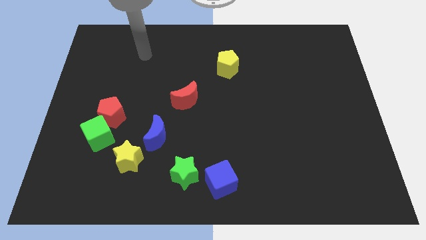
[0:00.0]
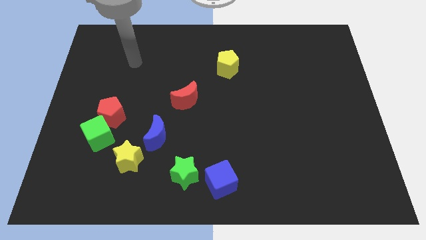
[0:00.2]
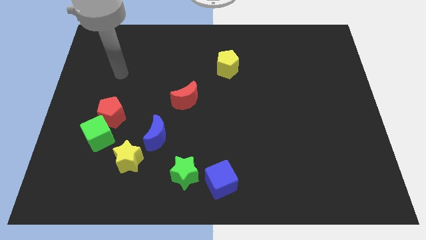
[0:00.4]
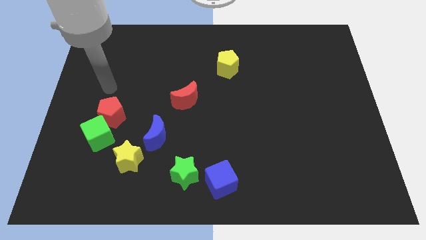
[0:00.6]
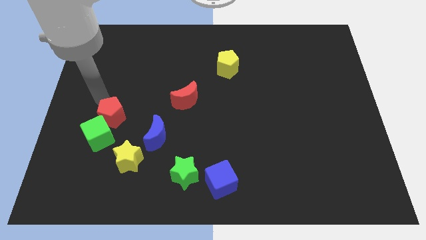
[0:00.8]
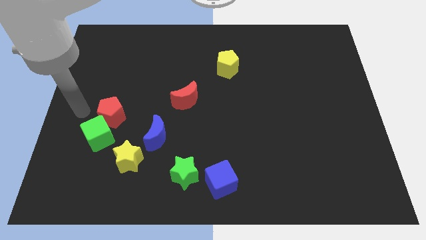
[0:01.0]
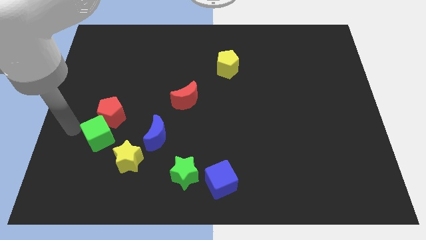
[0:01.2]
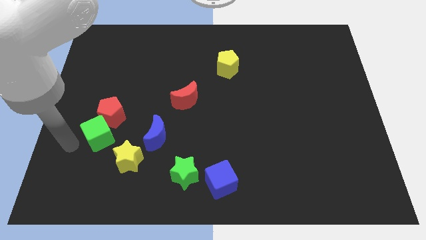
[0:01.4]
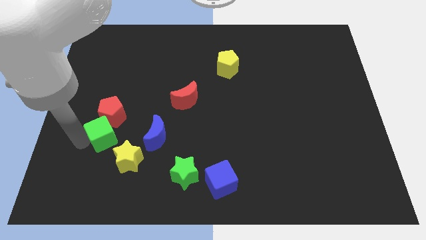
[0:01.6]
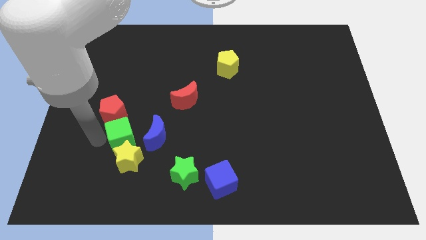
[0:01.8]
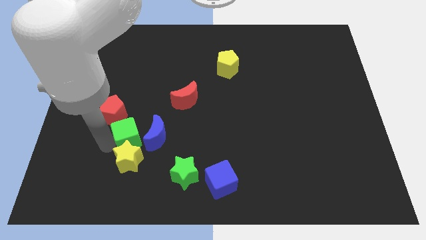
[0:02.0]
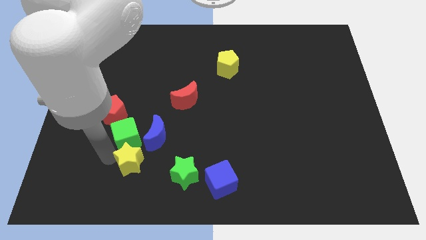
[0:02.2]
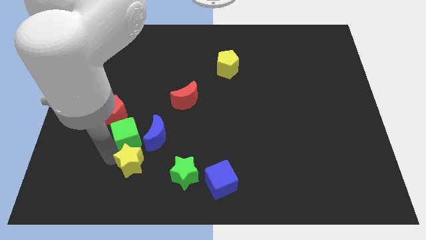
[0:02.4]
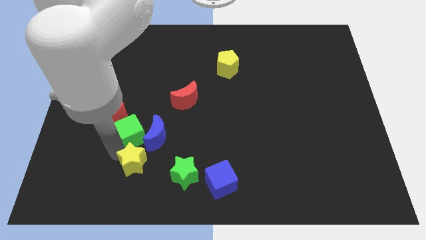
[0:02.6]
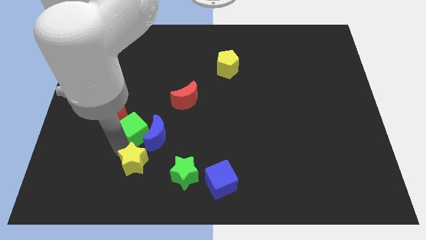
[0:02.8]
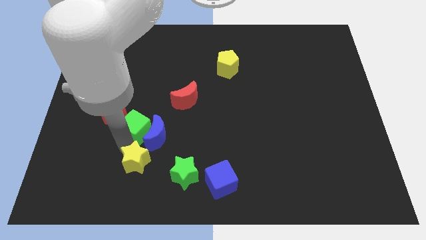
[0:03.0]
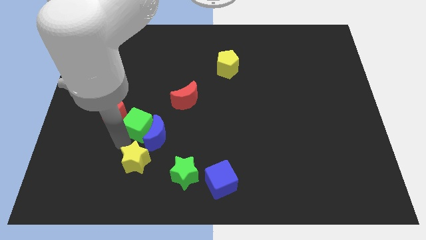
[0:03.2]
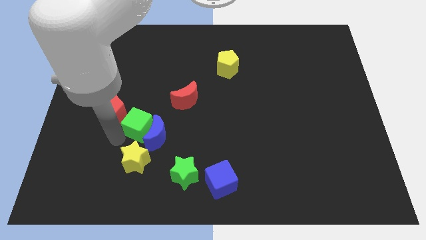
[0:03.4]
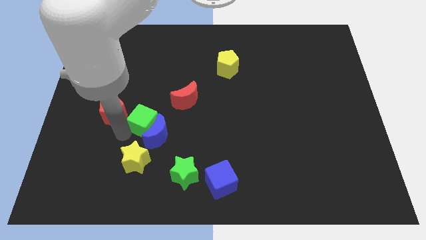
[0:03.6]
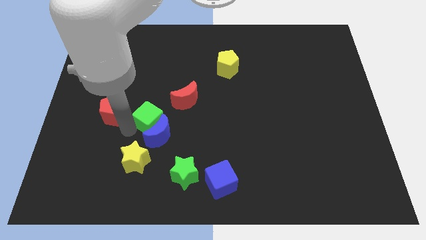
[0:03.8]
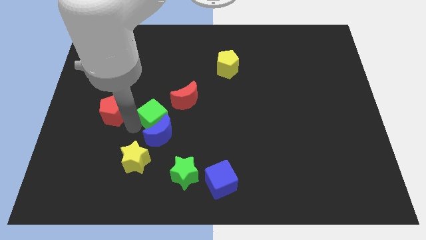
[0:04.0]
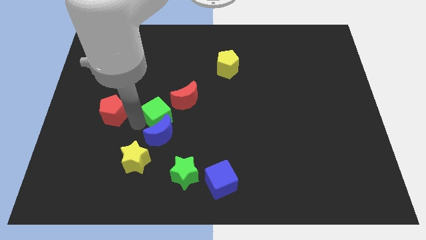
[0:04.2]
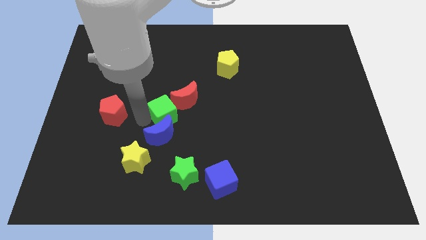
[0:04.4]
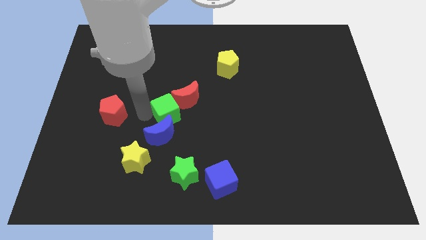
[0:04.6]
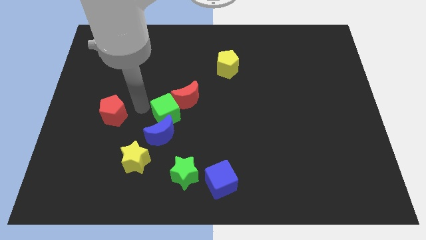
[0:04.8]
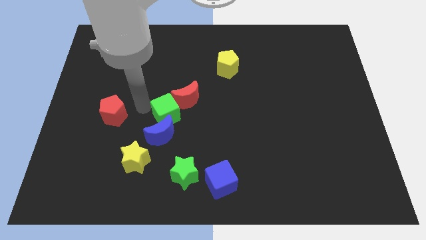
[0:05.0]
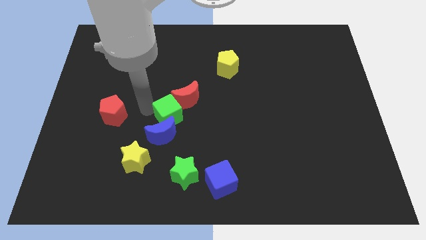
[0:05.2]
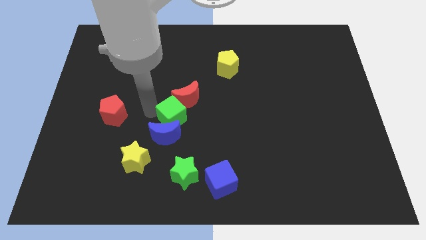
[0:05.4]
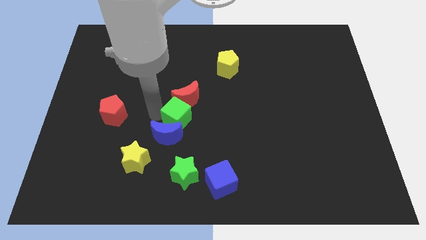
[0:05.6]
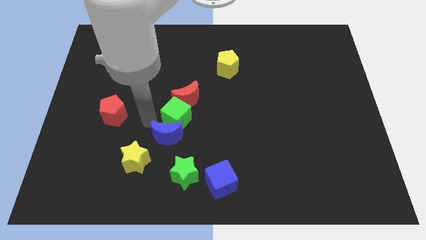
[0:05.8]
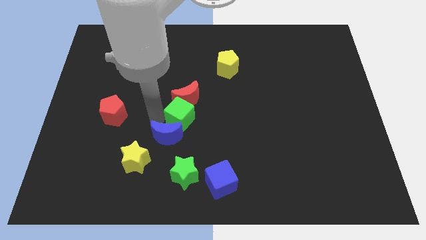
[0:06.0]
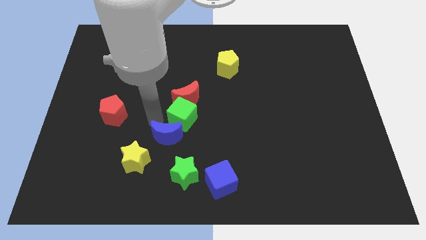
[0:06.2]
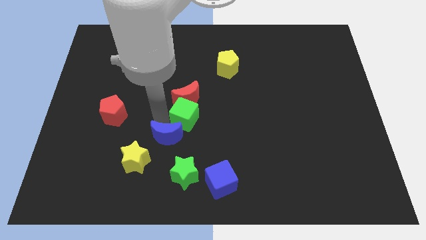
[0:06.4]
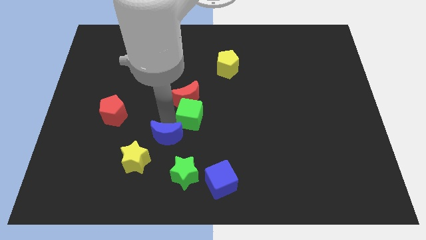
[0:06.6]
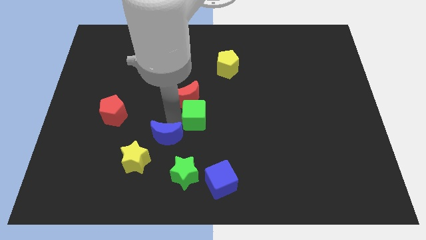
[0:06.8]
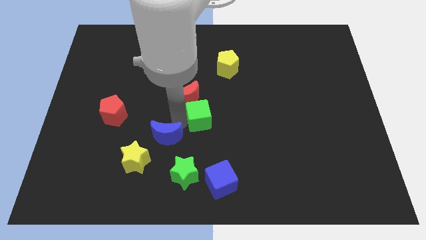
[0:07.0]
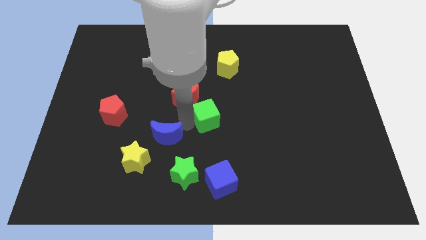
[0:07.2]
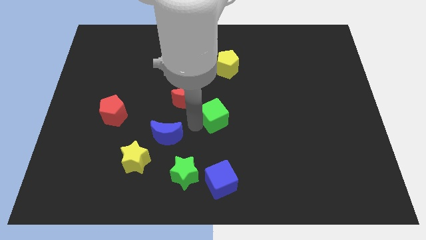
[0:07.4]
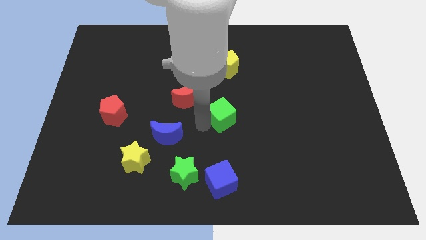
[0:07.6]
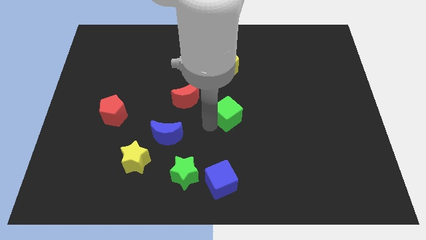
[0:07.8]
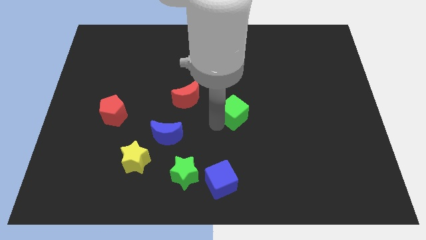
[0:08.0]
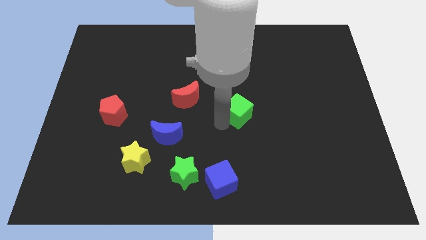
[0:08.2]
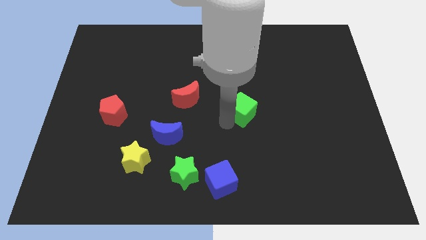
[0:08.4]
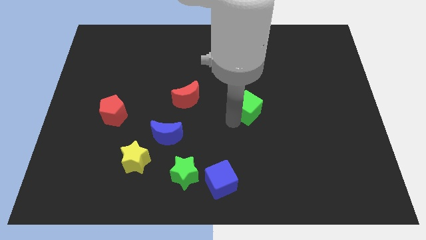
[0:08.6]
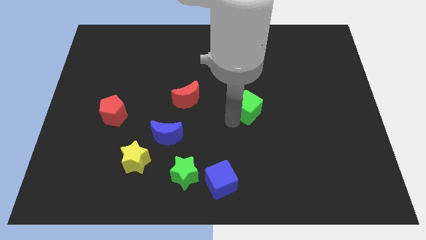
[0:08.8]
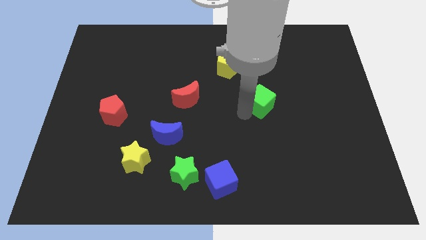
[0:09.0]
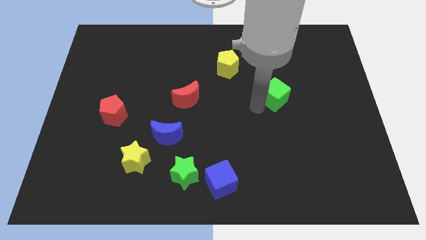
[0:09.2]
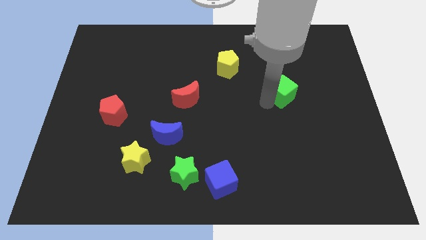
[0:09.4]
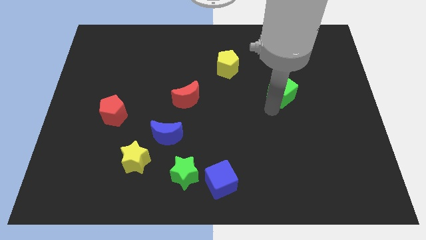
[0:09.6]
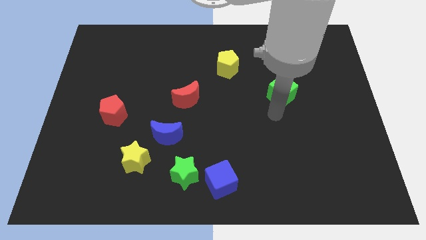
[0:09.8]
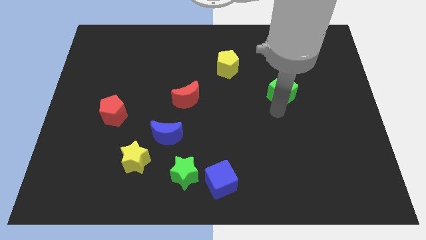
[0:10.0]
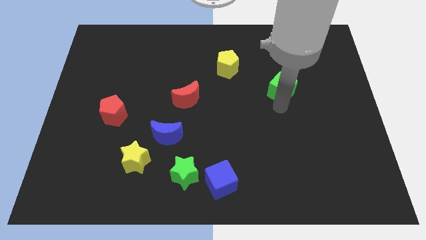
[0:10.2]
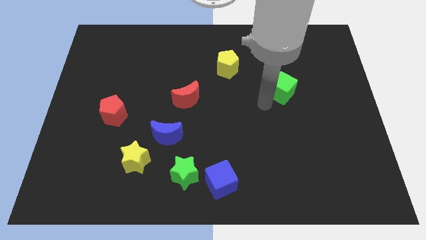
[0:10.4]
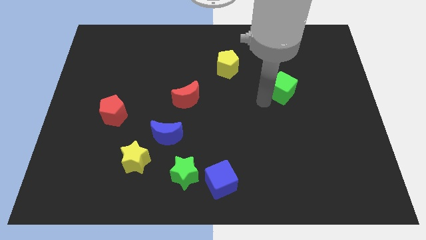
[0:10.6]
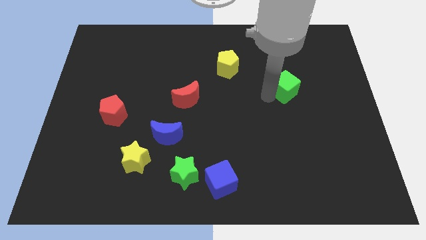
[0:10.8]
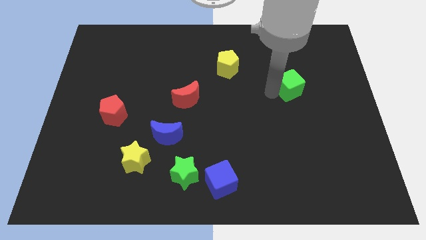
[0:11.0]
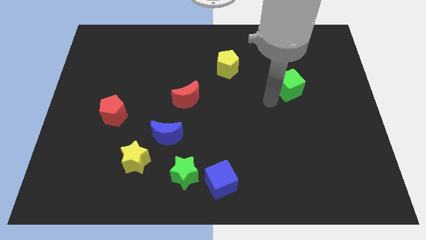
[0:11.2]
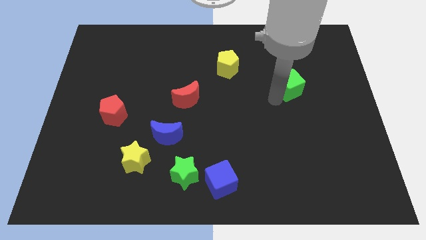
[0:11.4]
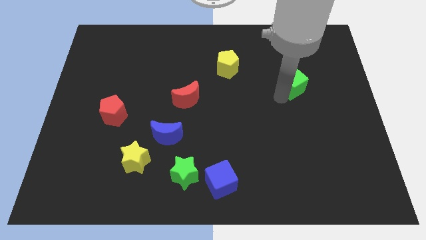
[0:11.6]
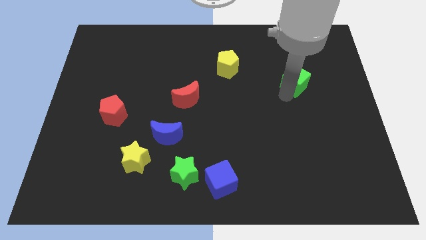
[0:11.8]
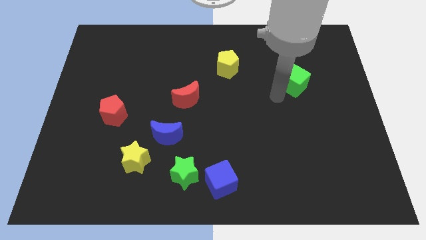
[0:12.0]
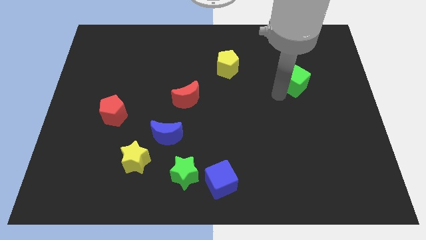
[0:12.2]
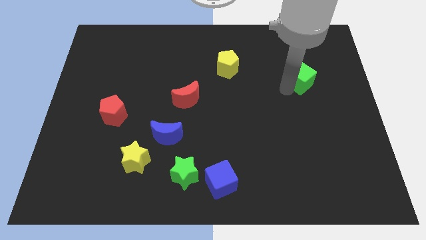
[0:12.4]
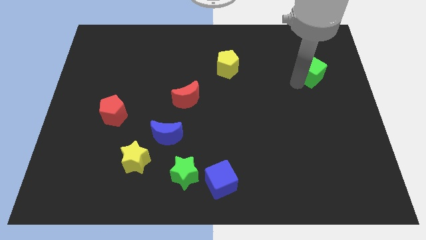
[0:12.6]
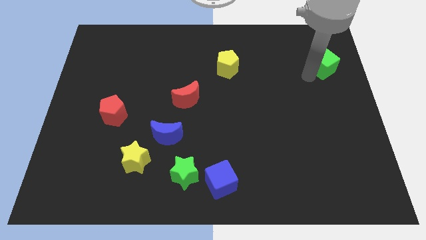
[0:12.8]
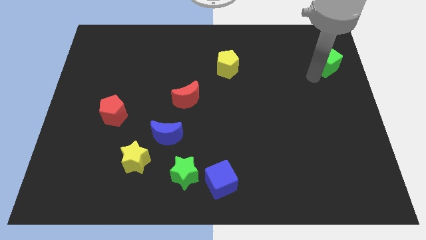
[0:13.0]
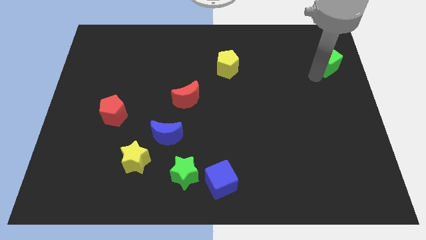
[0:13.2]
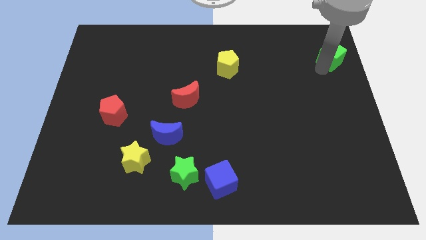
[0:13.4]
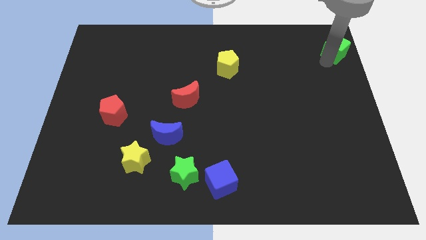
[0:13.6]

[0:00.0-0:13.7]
put the green cube to the upper right corner
